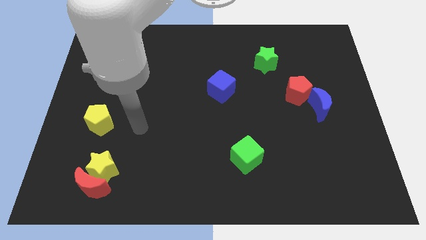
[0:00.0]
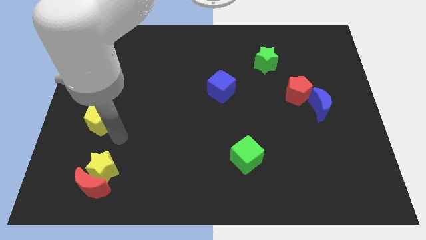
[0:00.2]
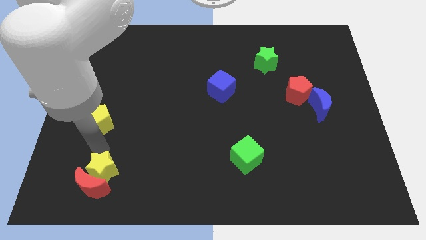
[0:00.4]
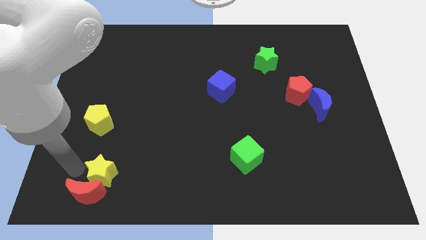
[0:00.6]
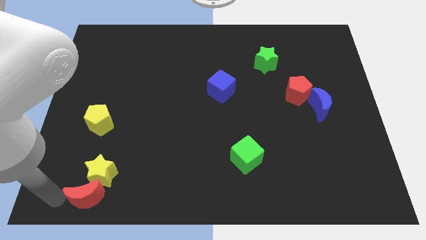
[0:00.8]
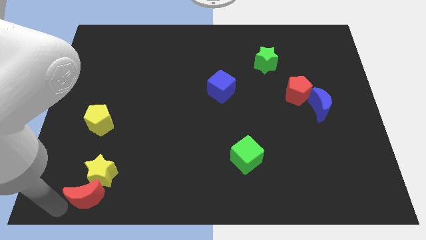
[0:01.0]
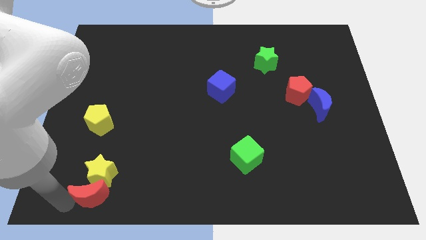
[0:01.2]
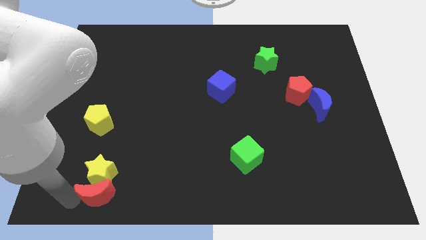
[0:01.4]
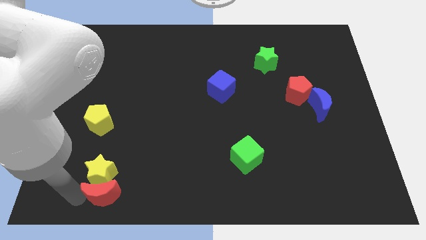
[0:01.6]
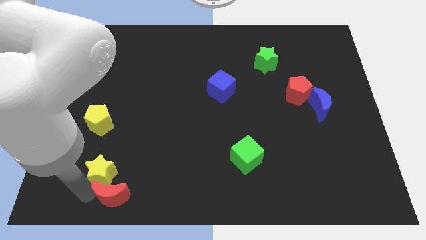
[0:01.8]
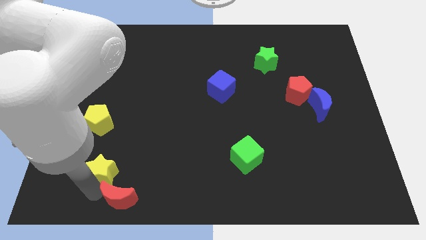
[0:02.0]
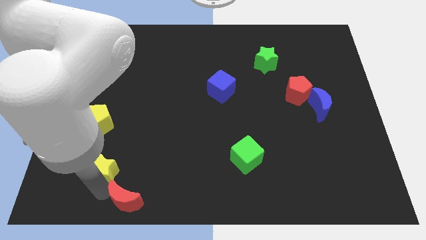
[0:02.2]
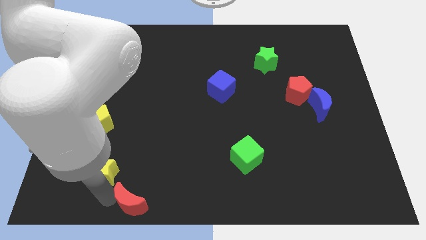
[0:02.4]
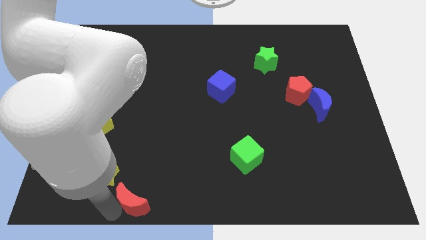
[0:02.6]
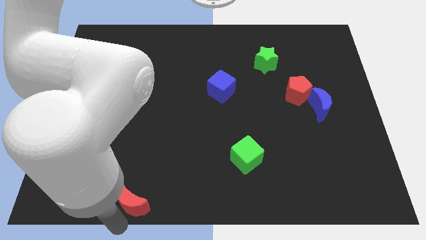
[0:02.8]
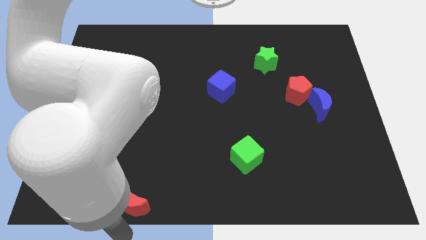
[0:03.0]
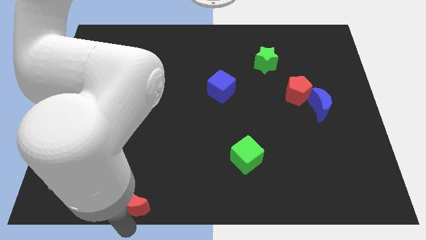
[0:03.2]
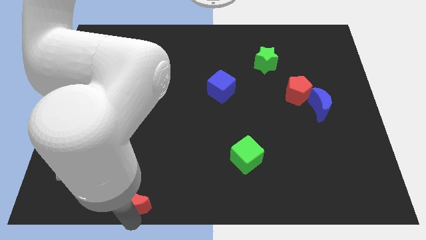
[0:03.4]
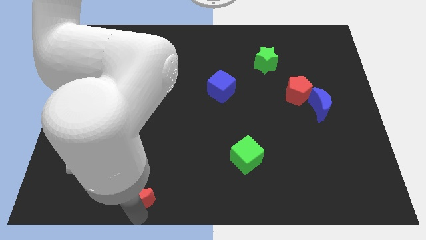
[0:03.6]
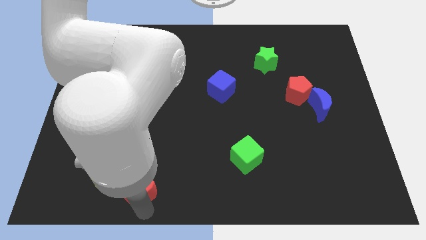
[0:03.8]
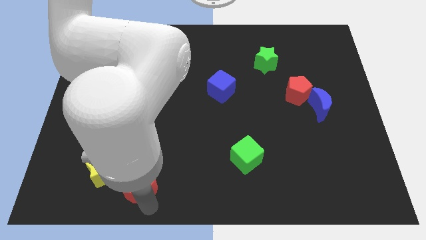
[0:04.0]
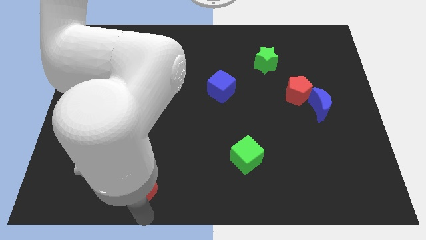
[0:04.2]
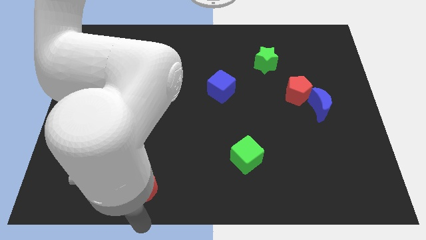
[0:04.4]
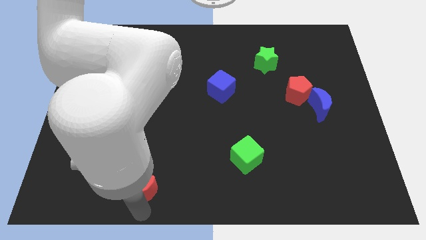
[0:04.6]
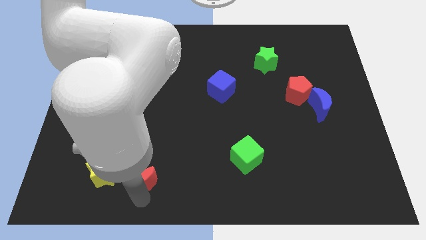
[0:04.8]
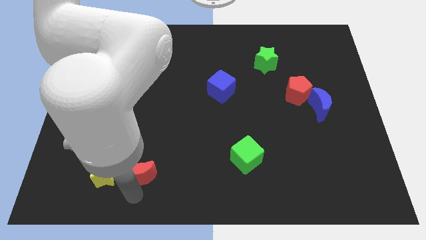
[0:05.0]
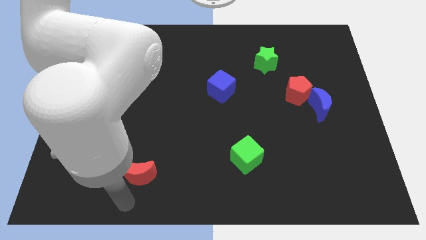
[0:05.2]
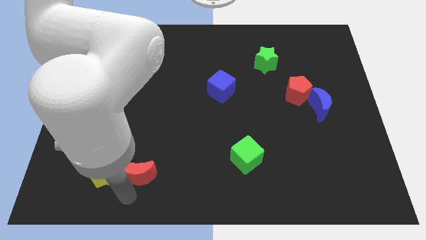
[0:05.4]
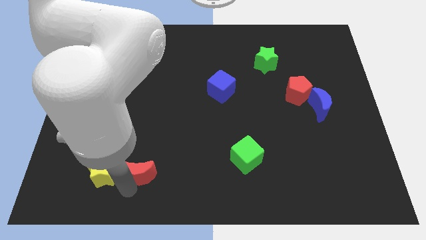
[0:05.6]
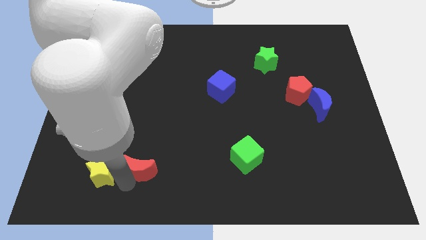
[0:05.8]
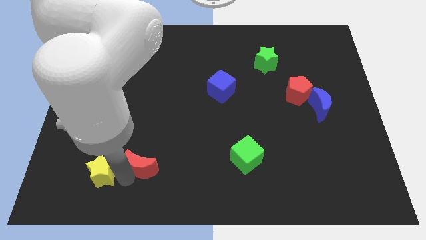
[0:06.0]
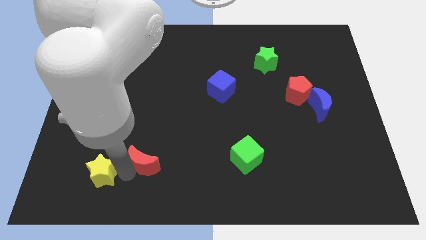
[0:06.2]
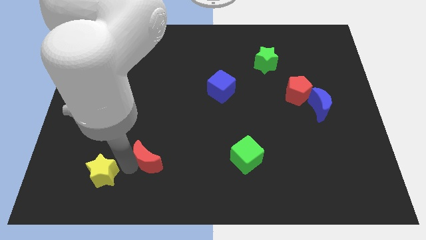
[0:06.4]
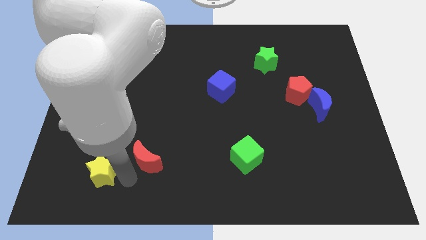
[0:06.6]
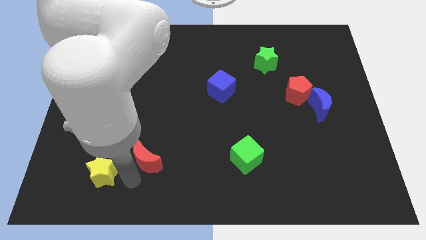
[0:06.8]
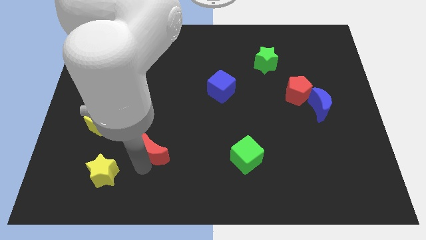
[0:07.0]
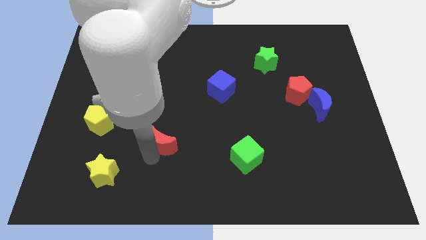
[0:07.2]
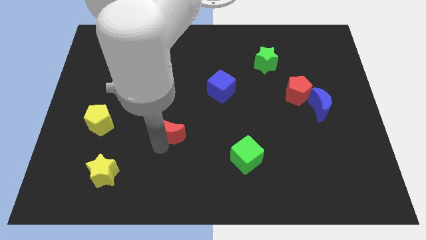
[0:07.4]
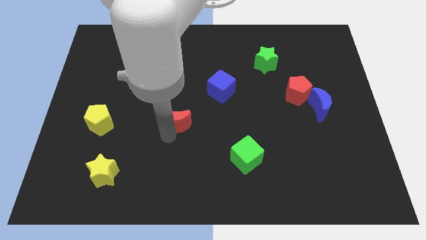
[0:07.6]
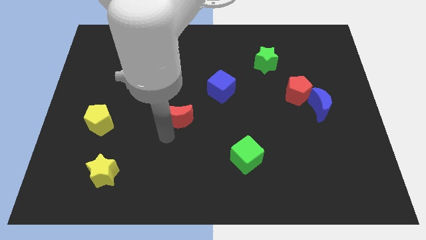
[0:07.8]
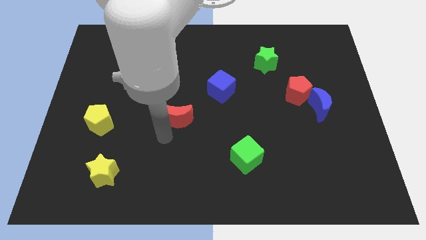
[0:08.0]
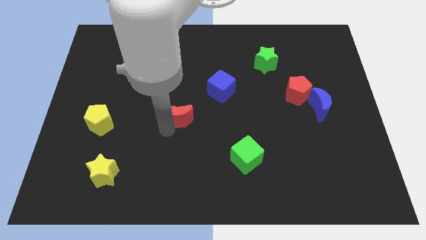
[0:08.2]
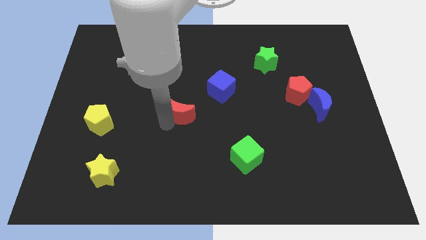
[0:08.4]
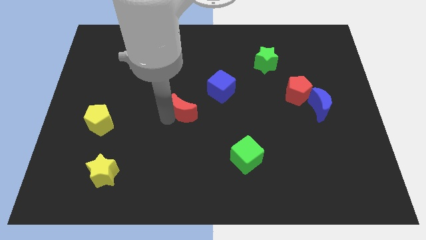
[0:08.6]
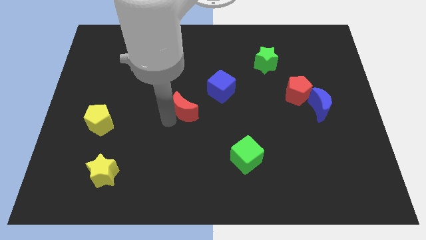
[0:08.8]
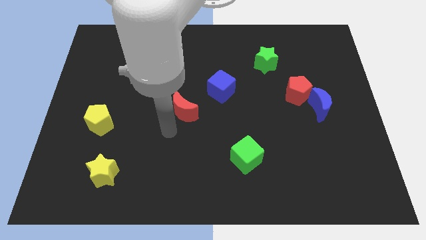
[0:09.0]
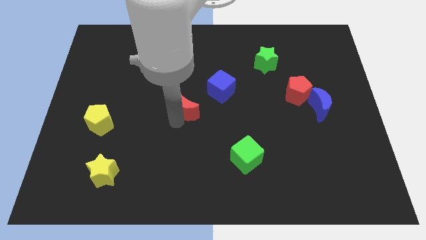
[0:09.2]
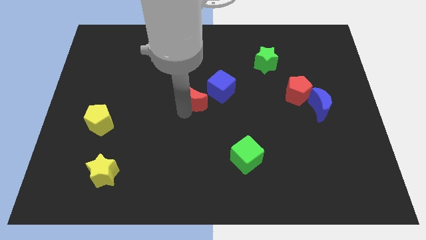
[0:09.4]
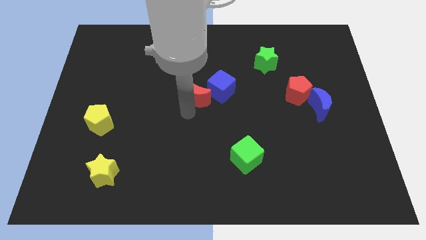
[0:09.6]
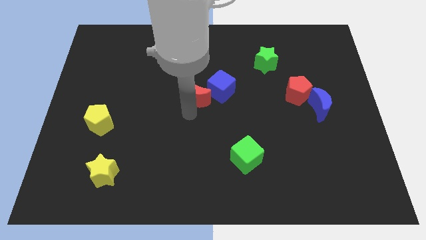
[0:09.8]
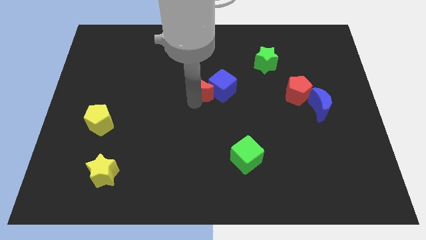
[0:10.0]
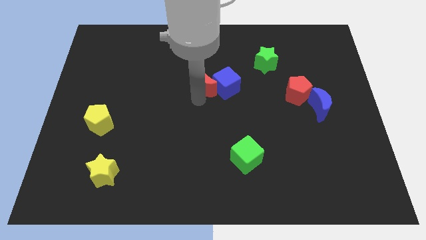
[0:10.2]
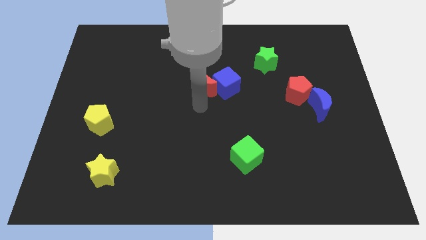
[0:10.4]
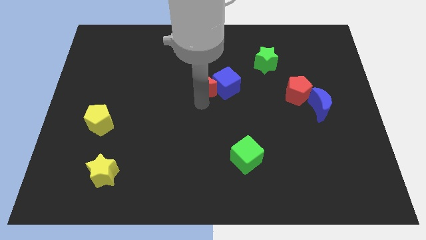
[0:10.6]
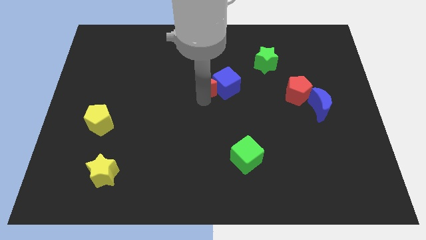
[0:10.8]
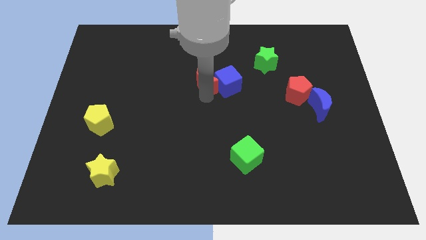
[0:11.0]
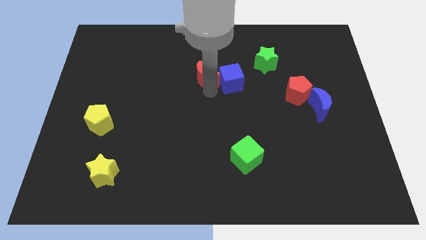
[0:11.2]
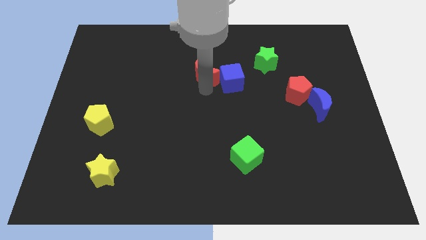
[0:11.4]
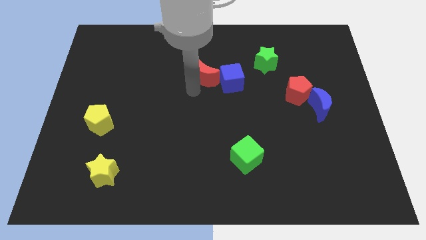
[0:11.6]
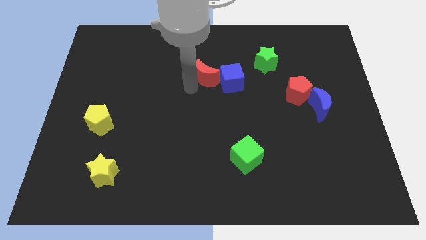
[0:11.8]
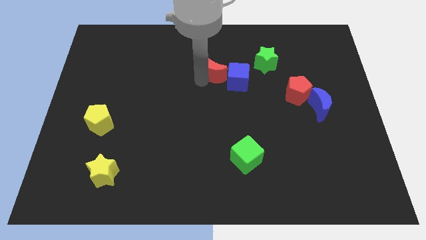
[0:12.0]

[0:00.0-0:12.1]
move the red moon to the left of the green star
